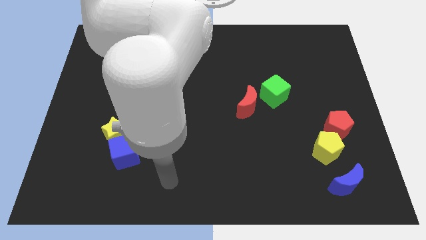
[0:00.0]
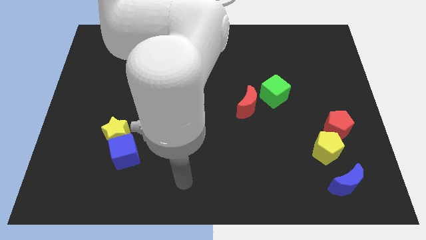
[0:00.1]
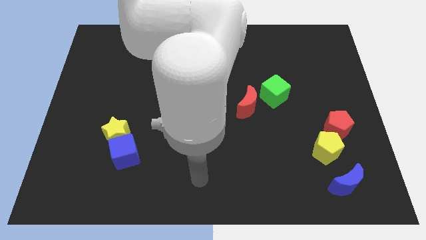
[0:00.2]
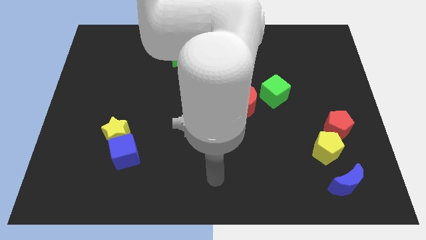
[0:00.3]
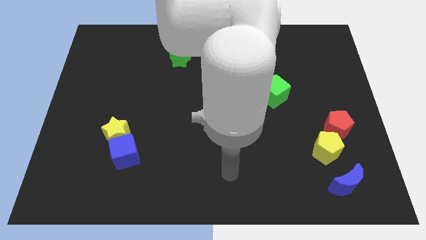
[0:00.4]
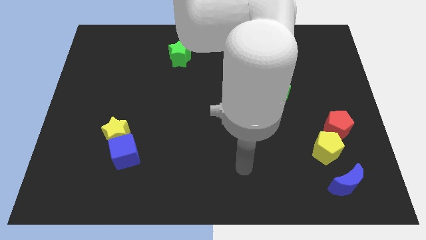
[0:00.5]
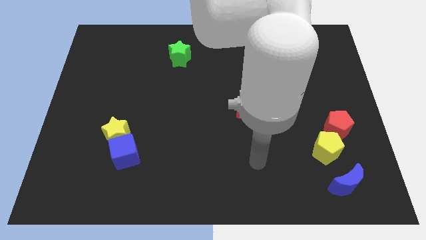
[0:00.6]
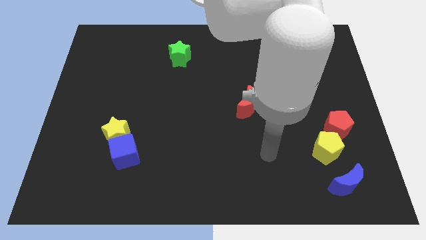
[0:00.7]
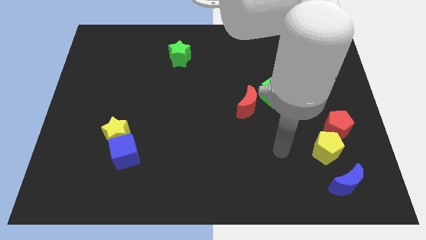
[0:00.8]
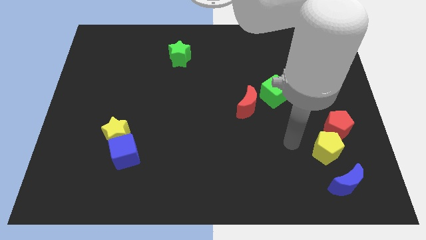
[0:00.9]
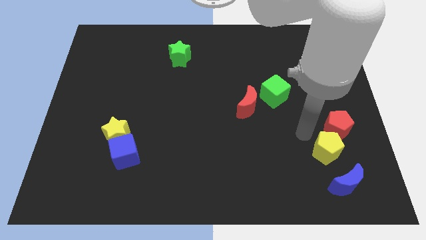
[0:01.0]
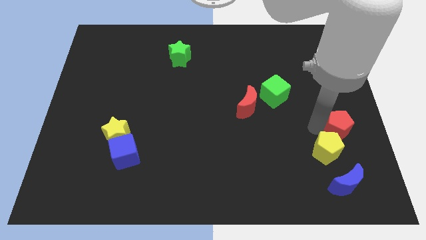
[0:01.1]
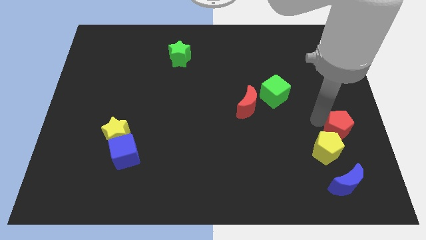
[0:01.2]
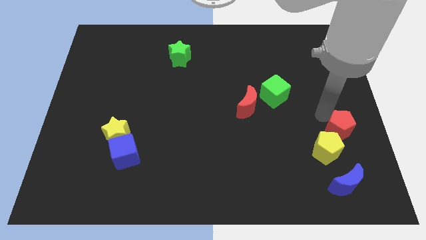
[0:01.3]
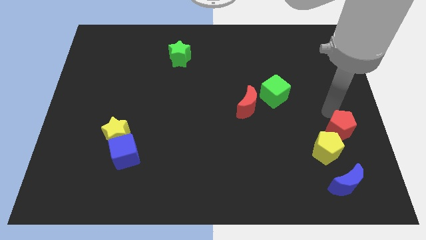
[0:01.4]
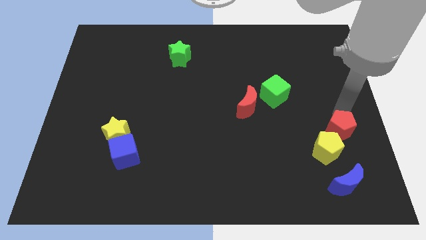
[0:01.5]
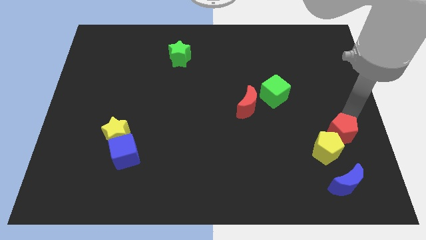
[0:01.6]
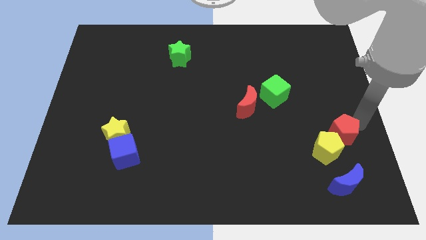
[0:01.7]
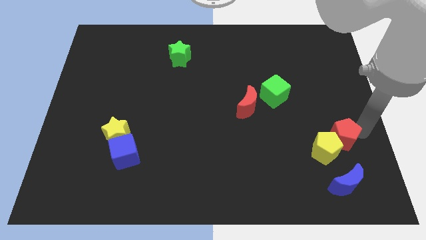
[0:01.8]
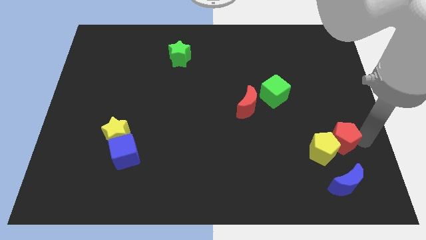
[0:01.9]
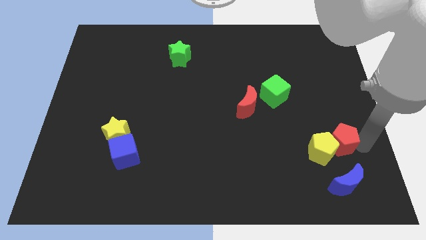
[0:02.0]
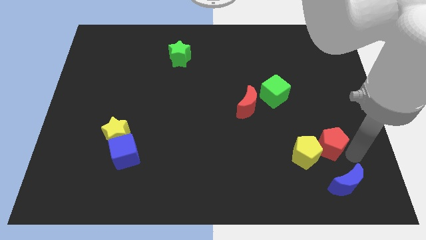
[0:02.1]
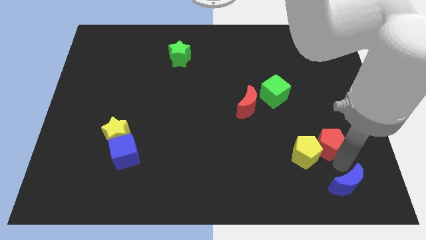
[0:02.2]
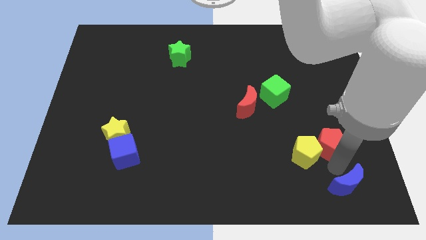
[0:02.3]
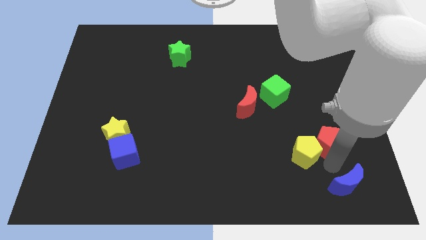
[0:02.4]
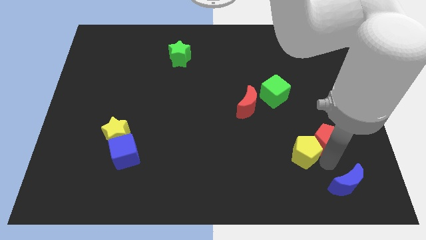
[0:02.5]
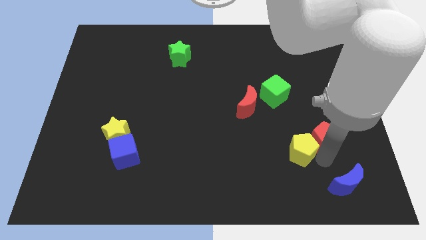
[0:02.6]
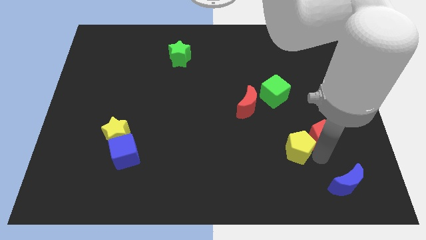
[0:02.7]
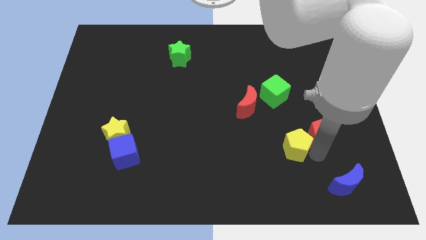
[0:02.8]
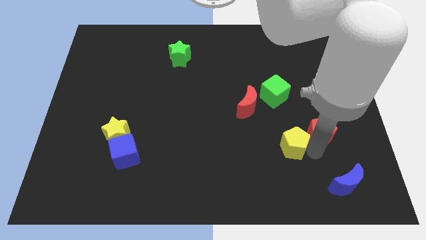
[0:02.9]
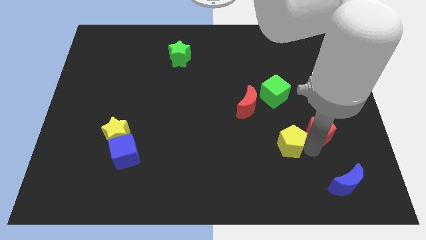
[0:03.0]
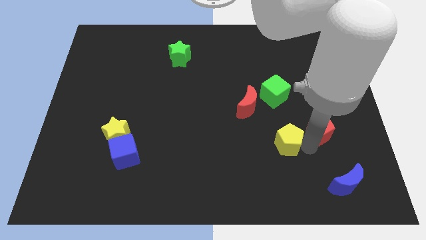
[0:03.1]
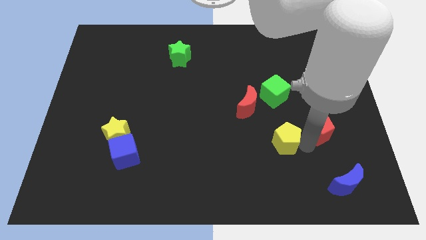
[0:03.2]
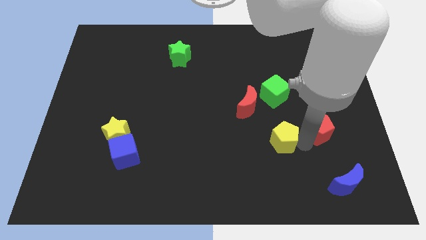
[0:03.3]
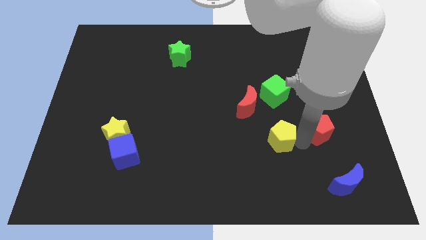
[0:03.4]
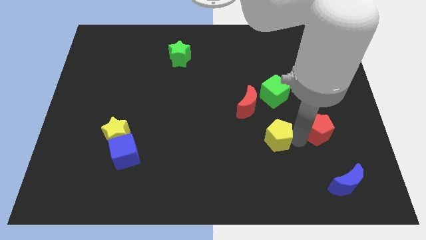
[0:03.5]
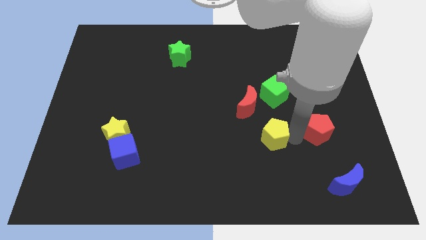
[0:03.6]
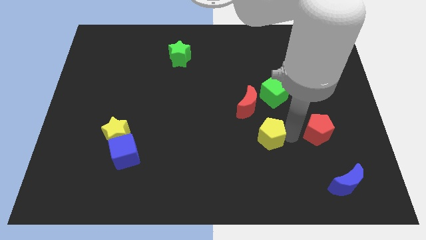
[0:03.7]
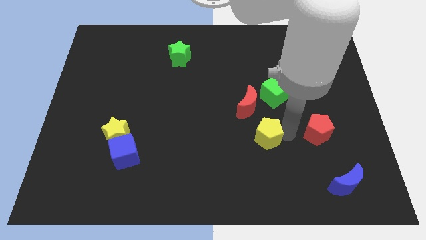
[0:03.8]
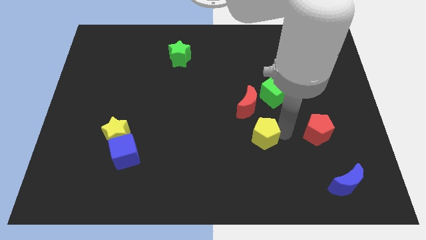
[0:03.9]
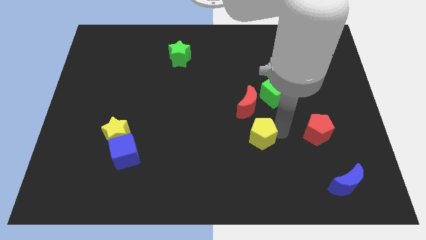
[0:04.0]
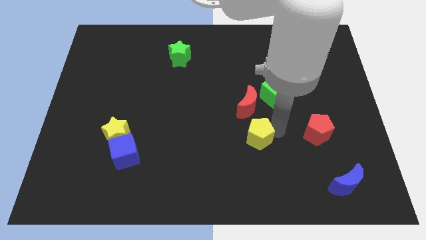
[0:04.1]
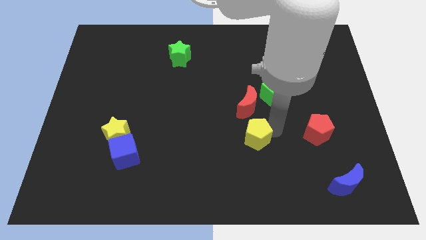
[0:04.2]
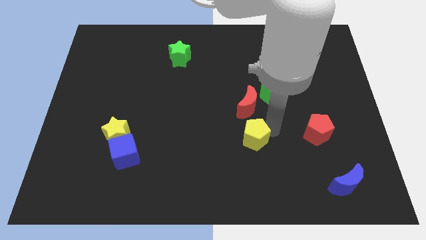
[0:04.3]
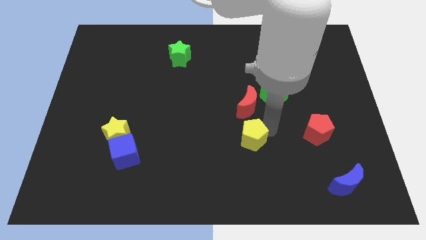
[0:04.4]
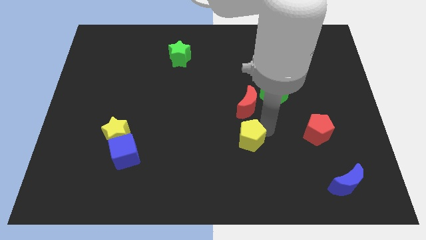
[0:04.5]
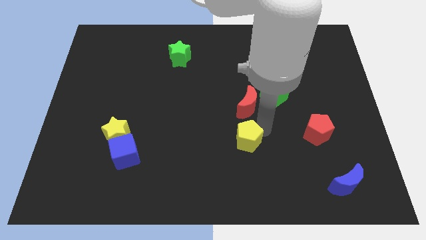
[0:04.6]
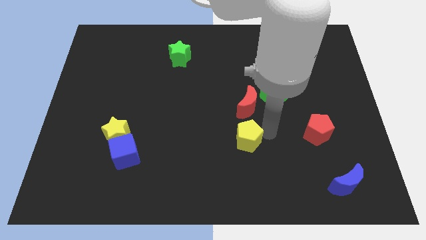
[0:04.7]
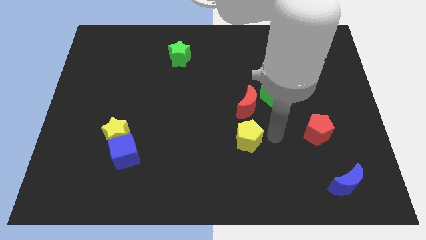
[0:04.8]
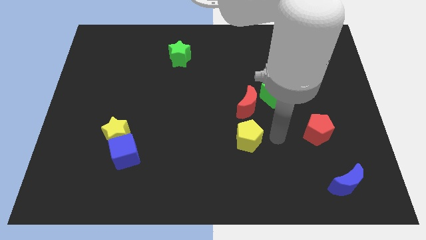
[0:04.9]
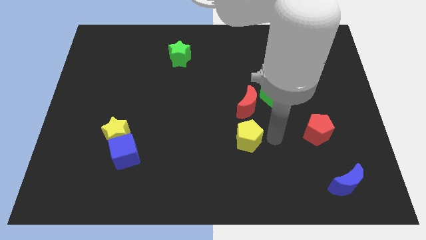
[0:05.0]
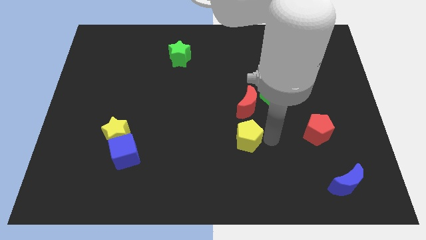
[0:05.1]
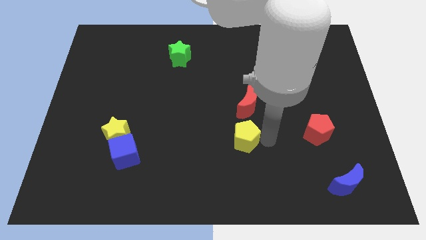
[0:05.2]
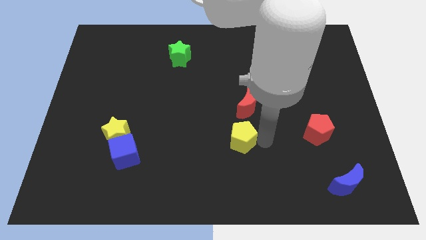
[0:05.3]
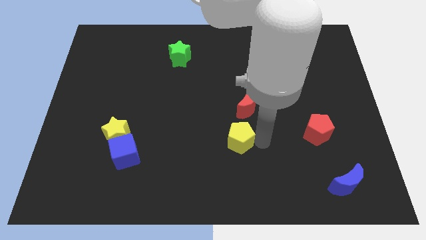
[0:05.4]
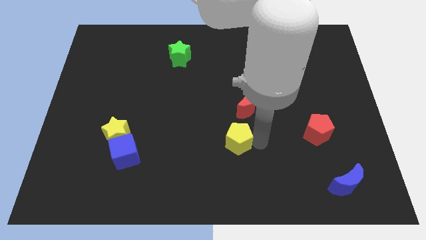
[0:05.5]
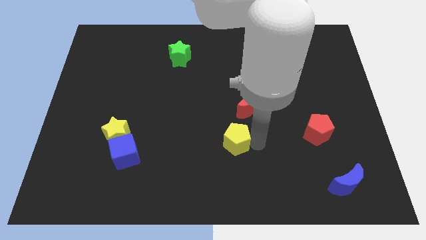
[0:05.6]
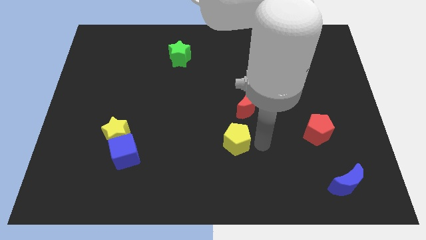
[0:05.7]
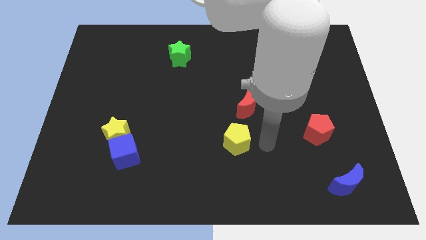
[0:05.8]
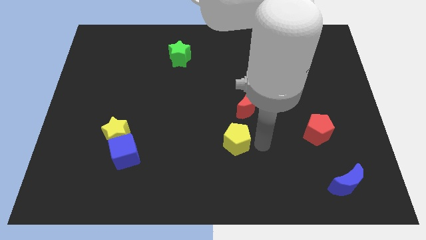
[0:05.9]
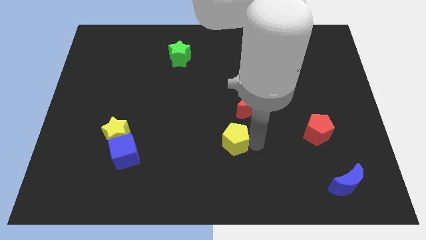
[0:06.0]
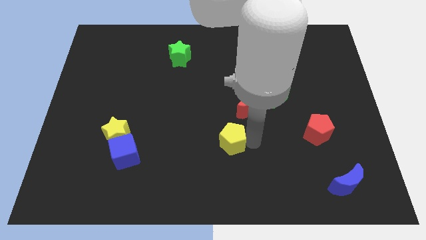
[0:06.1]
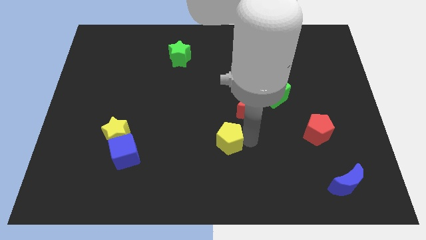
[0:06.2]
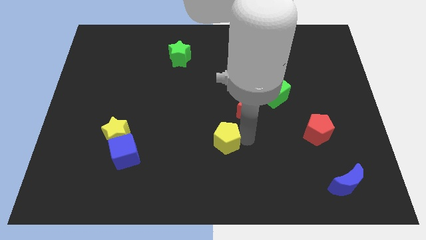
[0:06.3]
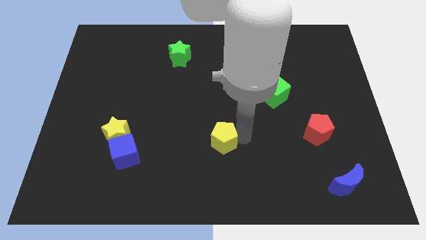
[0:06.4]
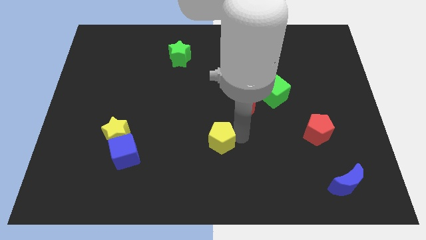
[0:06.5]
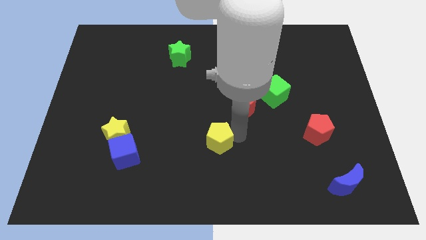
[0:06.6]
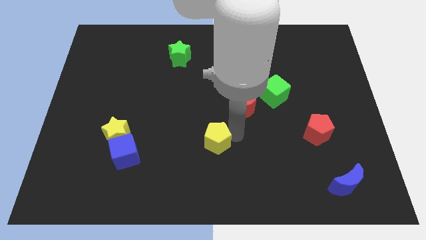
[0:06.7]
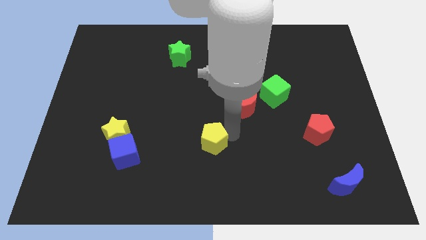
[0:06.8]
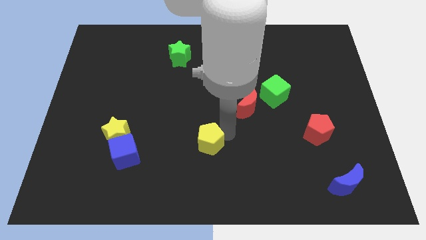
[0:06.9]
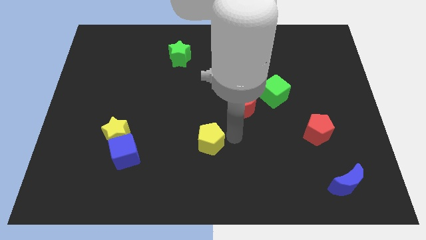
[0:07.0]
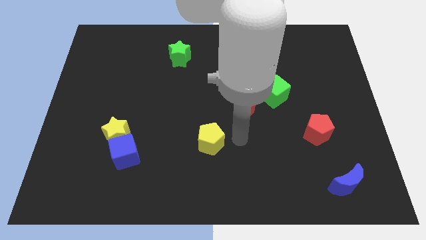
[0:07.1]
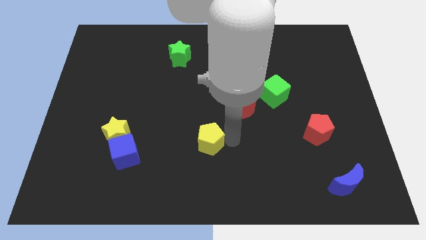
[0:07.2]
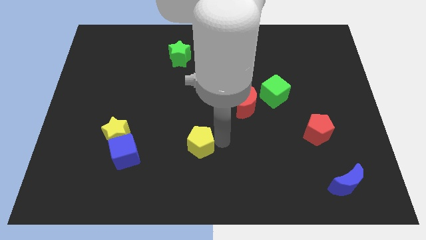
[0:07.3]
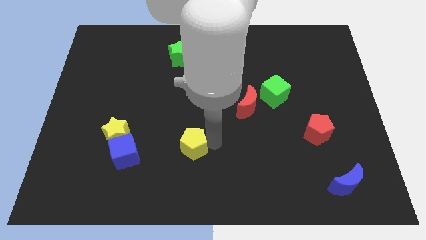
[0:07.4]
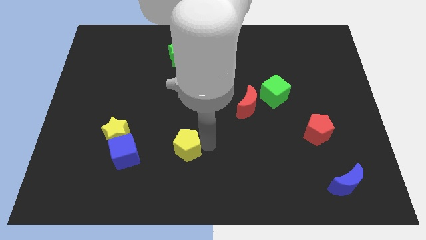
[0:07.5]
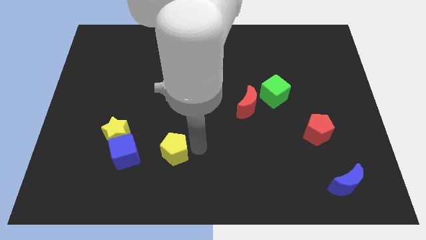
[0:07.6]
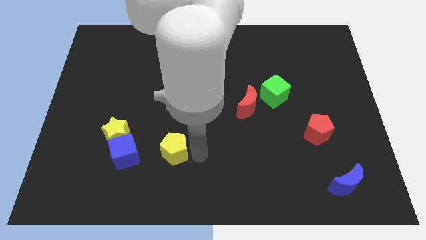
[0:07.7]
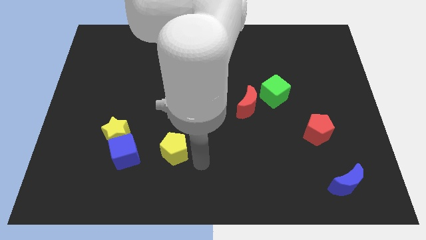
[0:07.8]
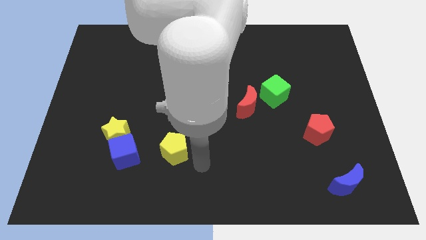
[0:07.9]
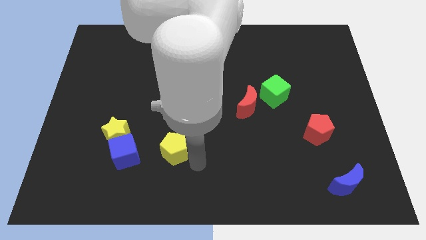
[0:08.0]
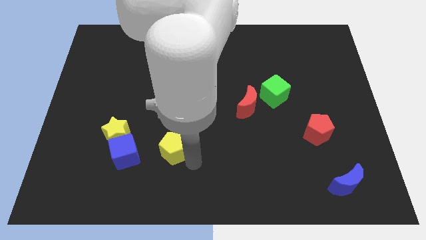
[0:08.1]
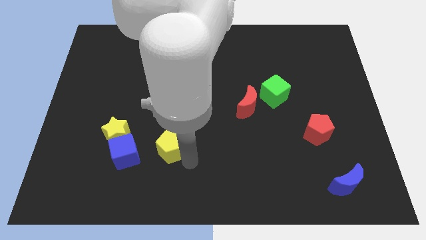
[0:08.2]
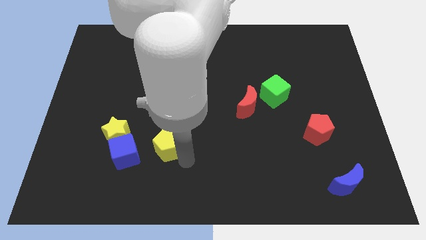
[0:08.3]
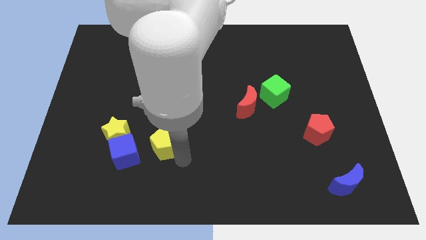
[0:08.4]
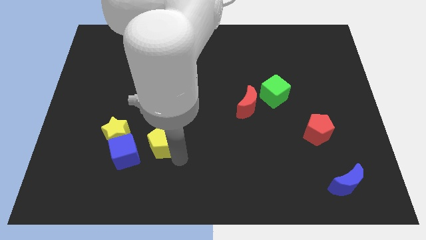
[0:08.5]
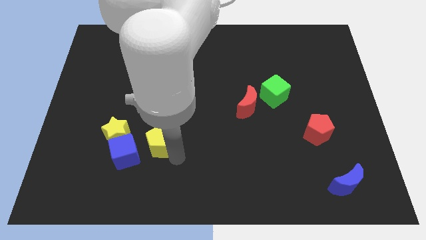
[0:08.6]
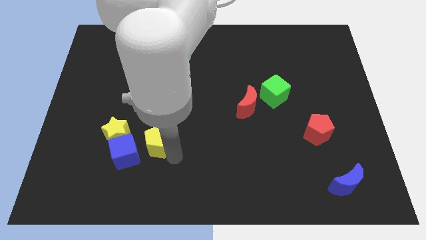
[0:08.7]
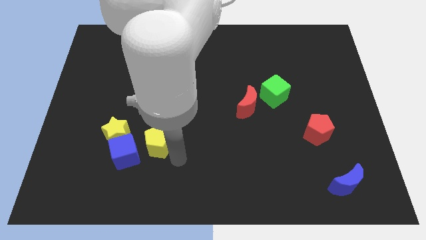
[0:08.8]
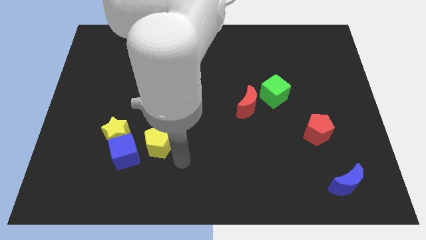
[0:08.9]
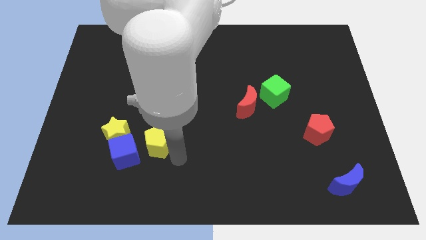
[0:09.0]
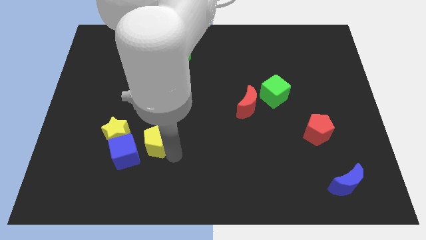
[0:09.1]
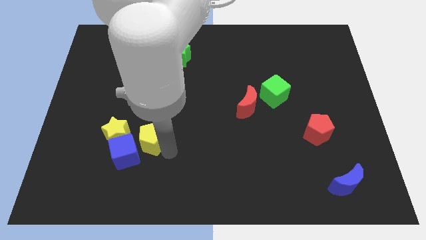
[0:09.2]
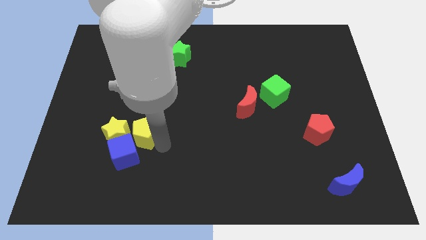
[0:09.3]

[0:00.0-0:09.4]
put the yellow pentagon next to the yellow star
